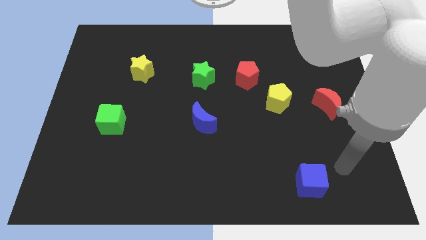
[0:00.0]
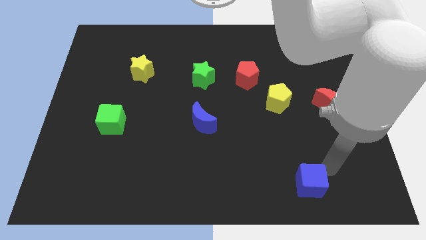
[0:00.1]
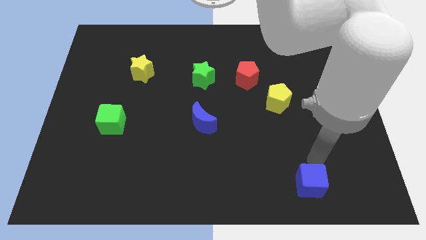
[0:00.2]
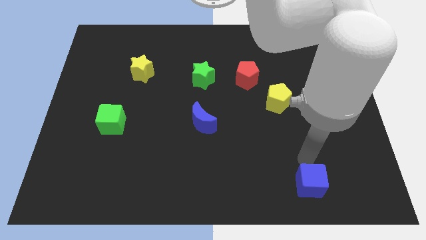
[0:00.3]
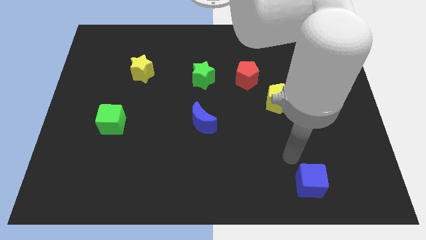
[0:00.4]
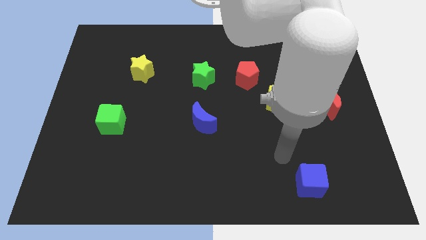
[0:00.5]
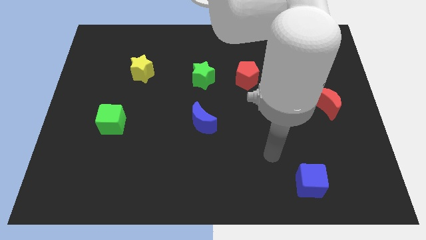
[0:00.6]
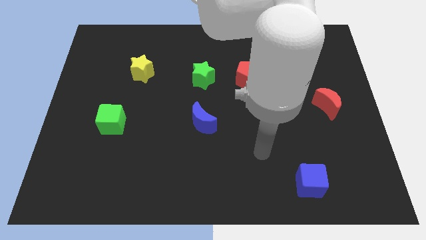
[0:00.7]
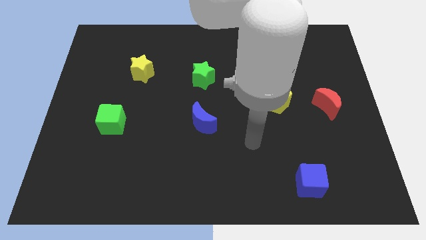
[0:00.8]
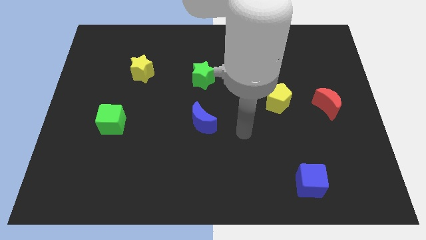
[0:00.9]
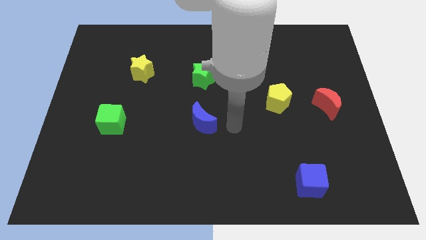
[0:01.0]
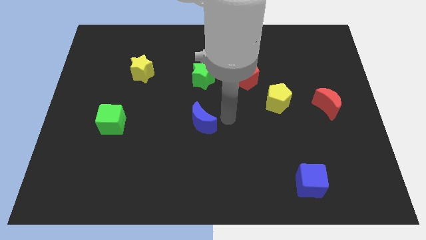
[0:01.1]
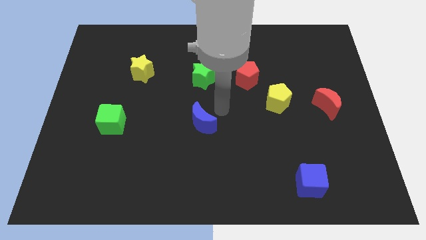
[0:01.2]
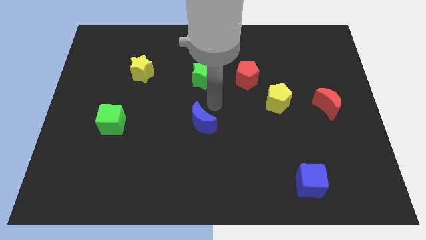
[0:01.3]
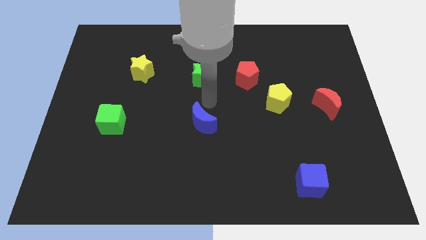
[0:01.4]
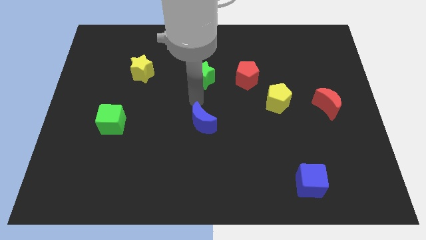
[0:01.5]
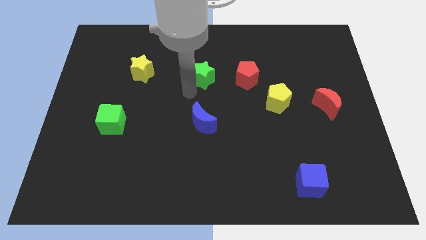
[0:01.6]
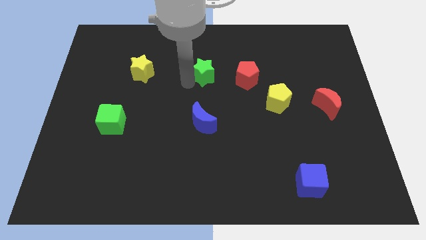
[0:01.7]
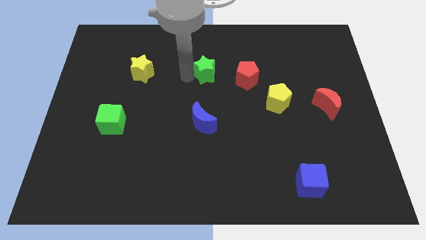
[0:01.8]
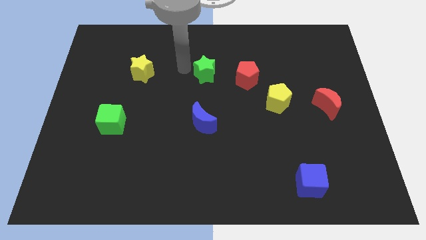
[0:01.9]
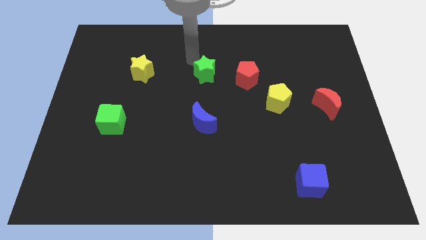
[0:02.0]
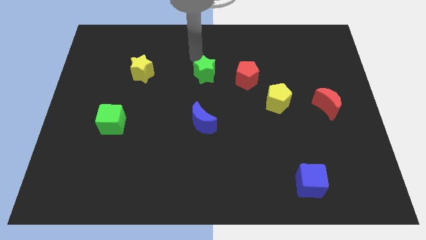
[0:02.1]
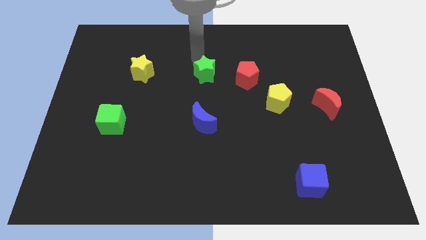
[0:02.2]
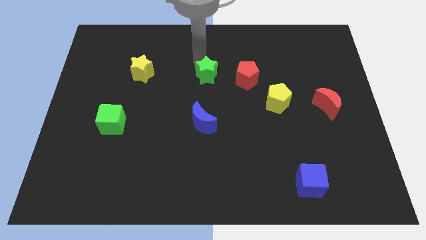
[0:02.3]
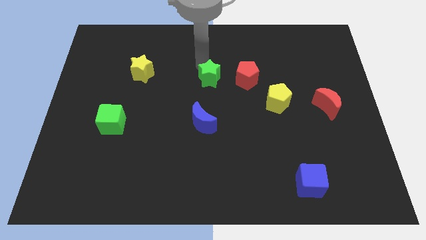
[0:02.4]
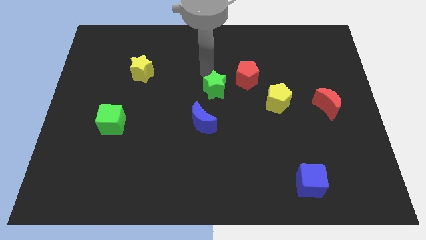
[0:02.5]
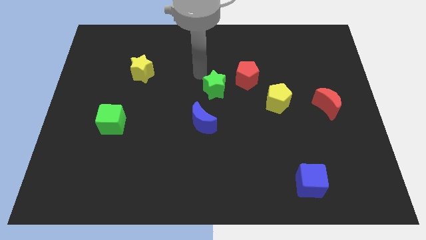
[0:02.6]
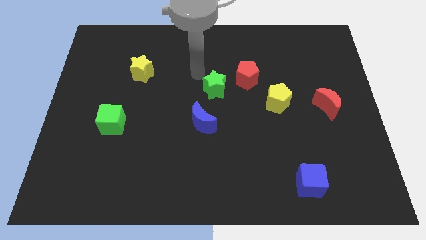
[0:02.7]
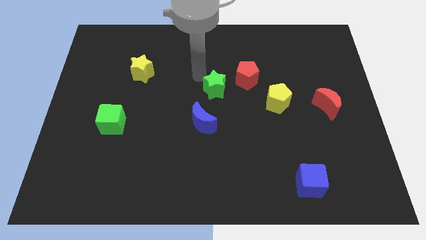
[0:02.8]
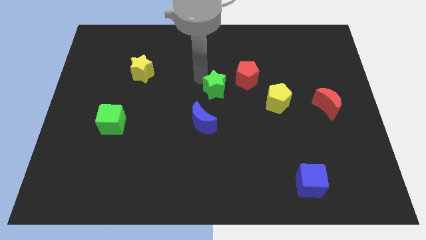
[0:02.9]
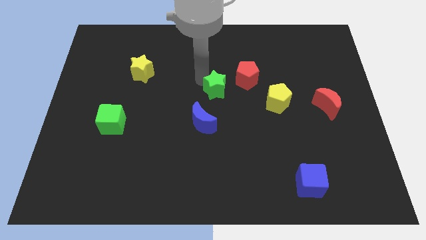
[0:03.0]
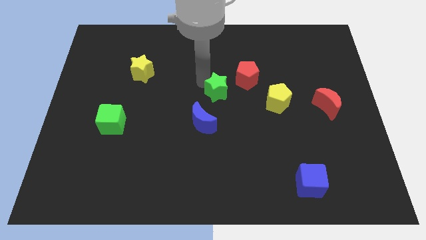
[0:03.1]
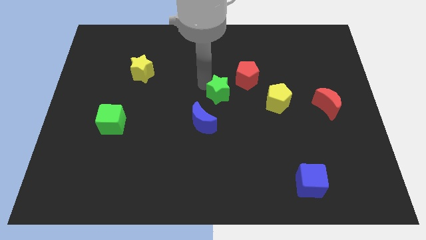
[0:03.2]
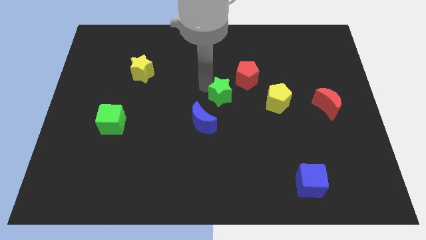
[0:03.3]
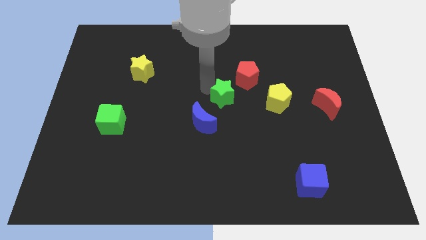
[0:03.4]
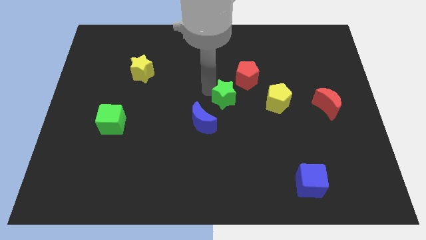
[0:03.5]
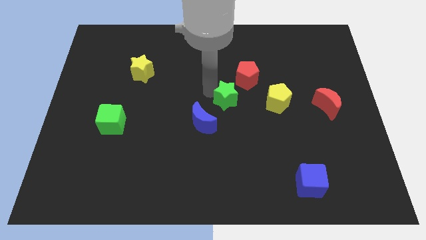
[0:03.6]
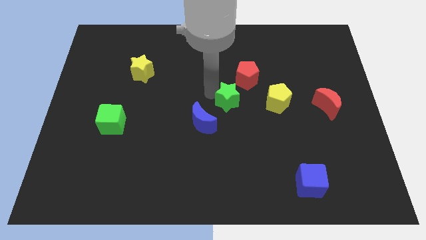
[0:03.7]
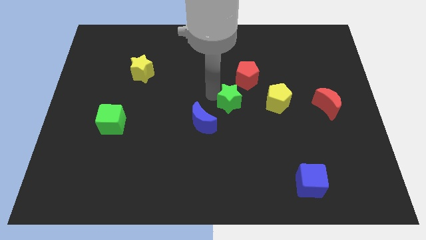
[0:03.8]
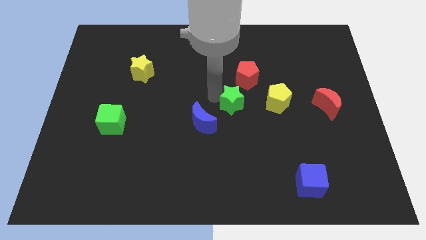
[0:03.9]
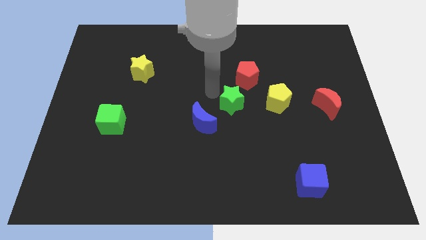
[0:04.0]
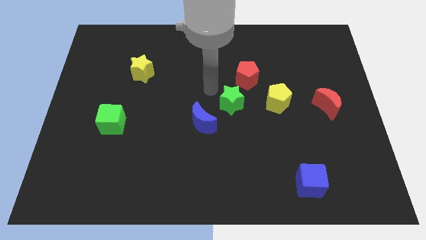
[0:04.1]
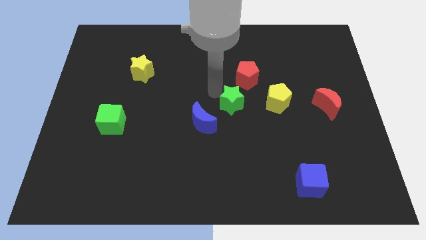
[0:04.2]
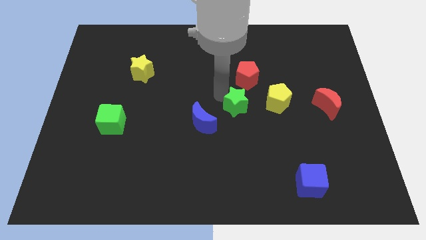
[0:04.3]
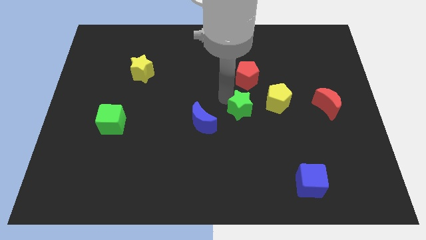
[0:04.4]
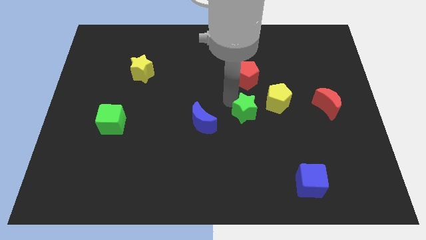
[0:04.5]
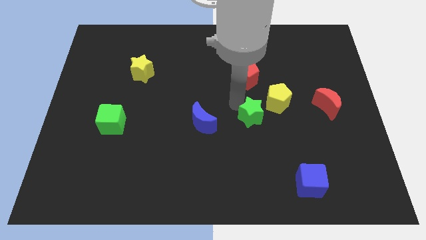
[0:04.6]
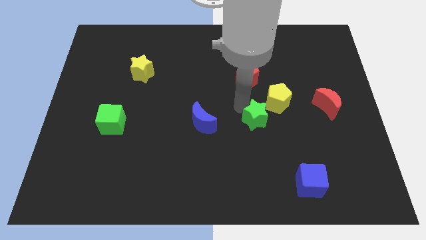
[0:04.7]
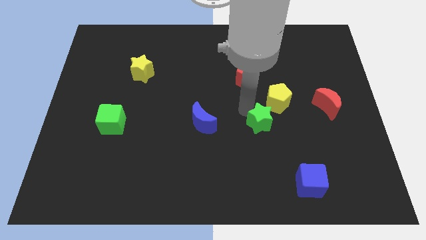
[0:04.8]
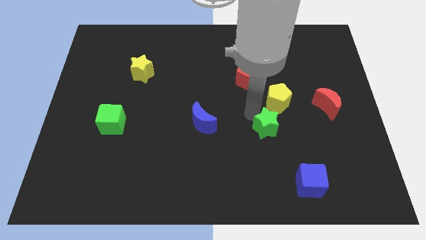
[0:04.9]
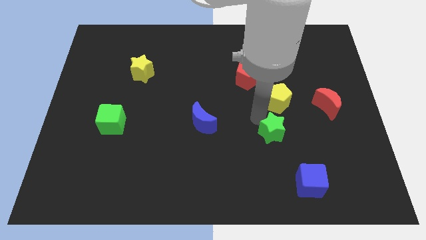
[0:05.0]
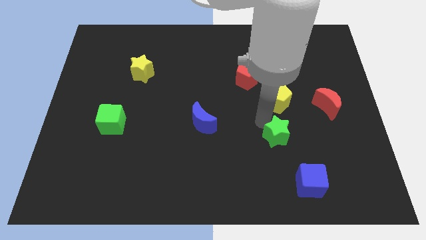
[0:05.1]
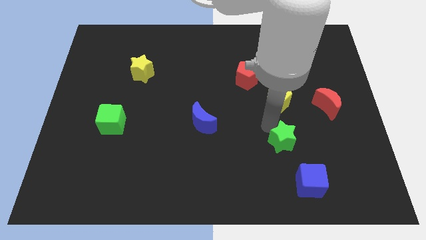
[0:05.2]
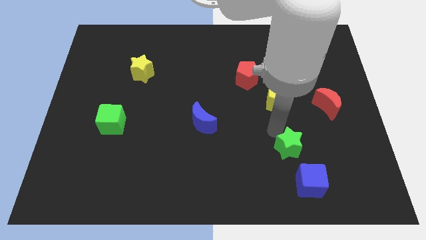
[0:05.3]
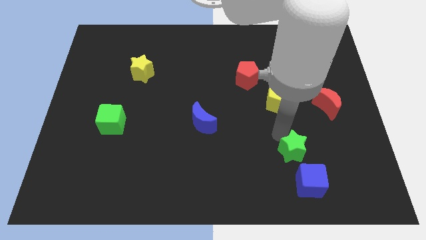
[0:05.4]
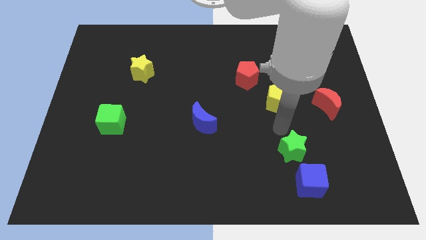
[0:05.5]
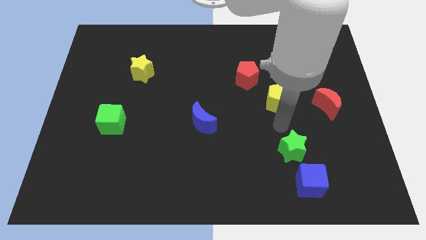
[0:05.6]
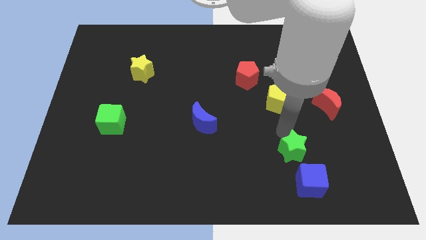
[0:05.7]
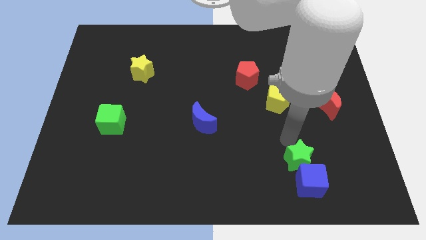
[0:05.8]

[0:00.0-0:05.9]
slide the green star next to the blue cube
